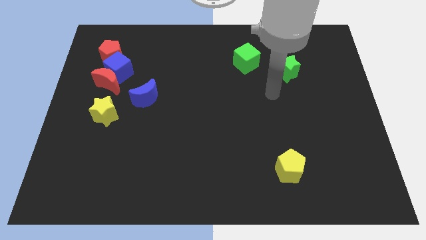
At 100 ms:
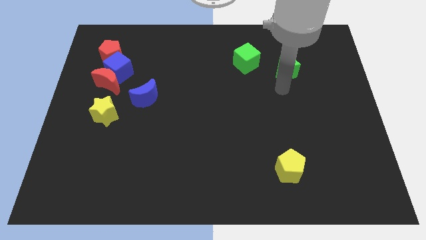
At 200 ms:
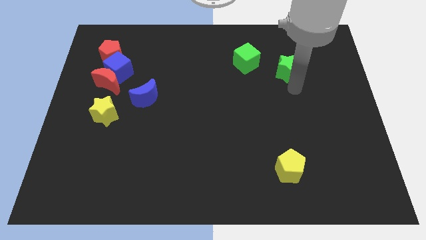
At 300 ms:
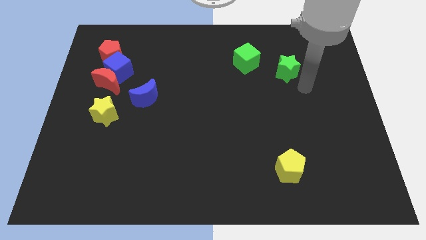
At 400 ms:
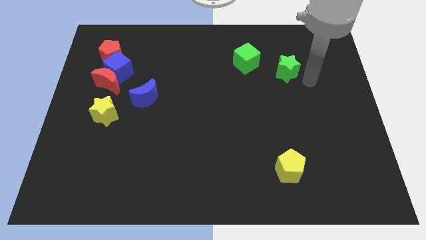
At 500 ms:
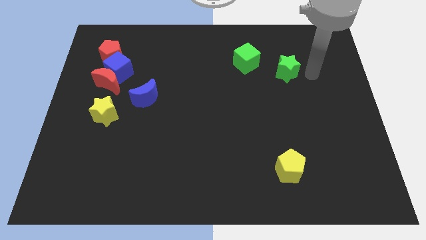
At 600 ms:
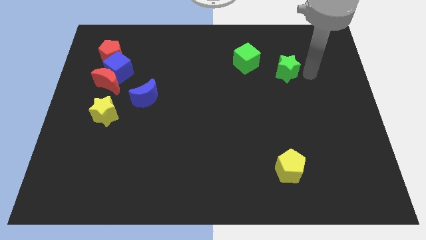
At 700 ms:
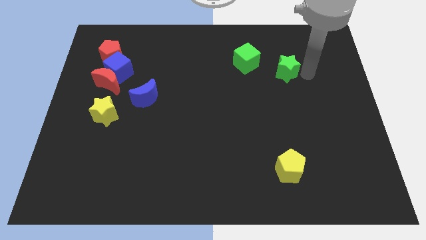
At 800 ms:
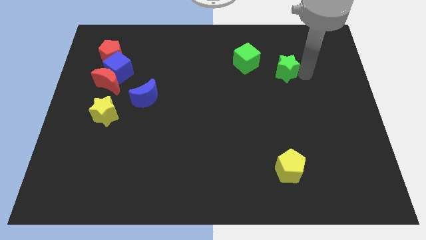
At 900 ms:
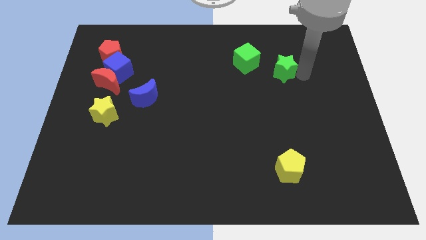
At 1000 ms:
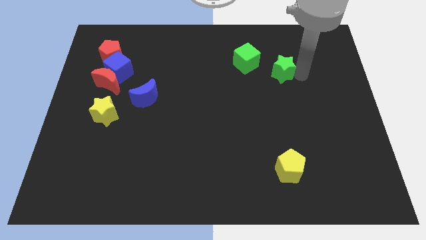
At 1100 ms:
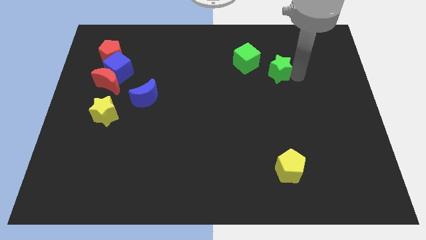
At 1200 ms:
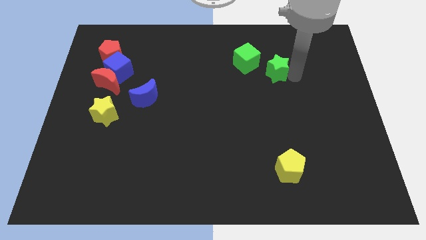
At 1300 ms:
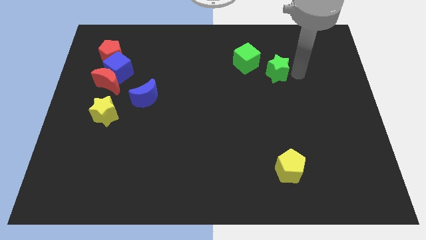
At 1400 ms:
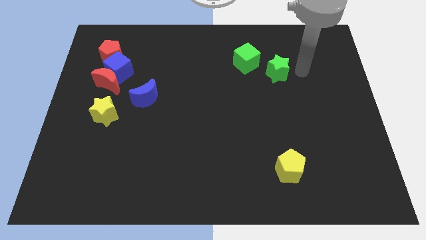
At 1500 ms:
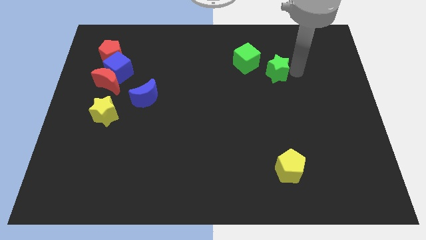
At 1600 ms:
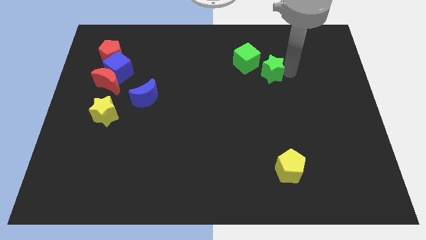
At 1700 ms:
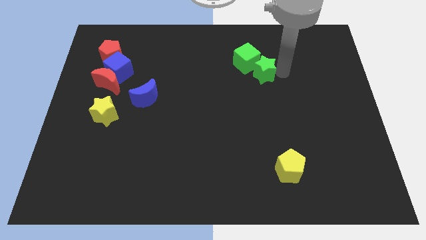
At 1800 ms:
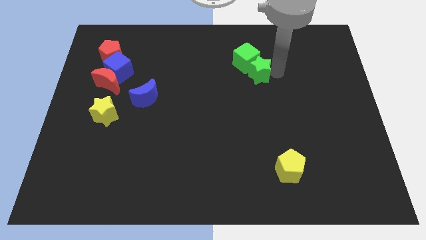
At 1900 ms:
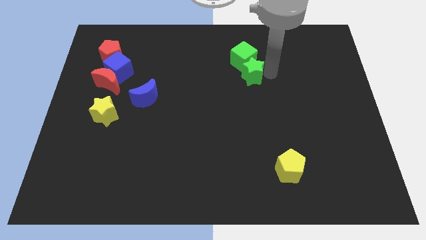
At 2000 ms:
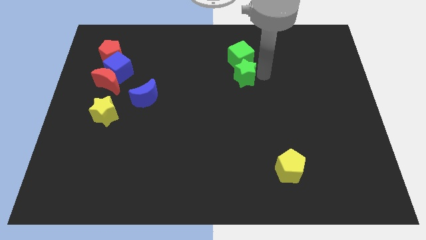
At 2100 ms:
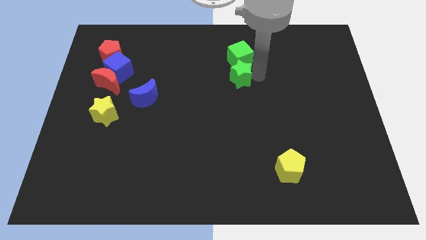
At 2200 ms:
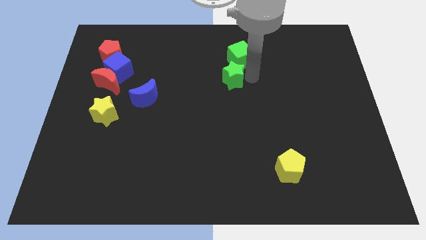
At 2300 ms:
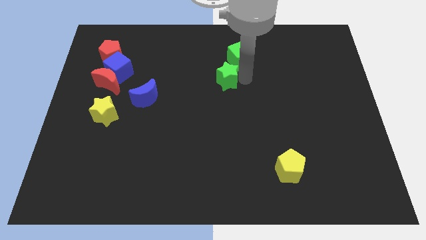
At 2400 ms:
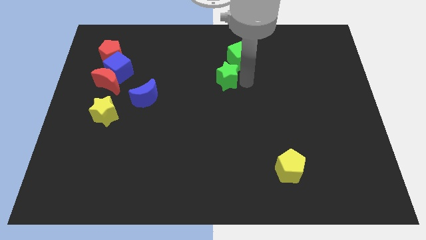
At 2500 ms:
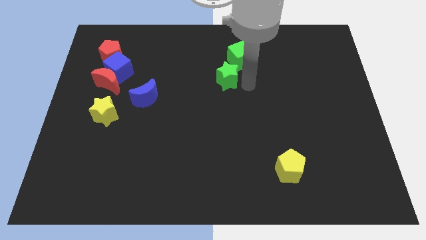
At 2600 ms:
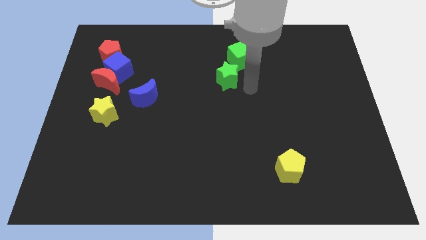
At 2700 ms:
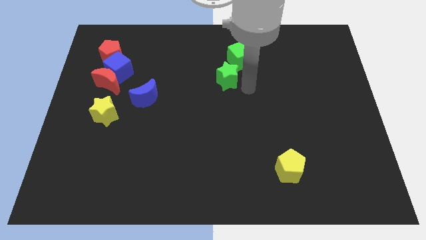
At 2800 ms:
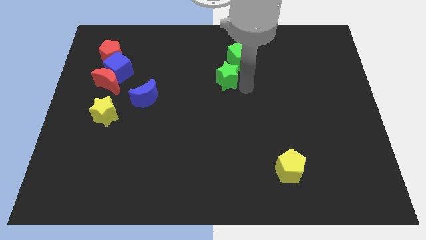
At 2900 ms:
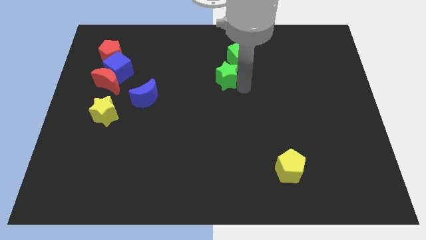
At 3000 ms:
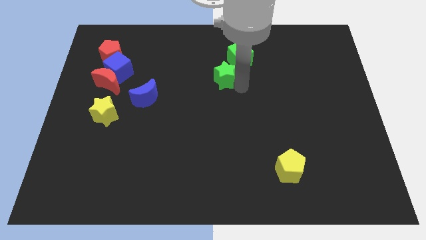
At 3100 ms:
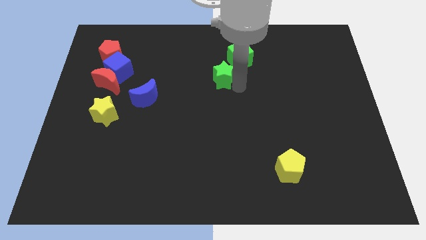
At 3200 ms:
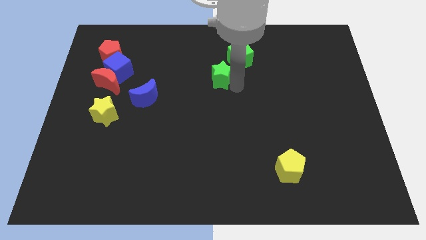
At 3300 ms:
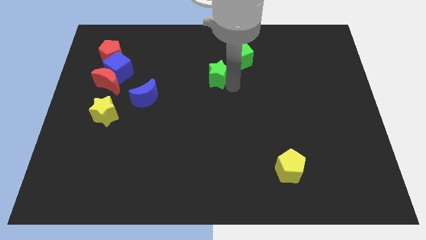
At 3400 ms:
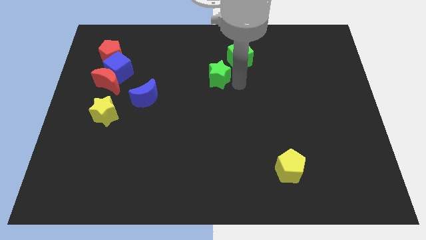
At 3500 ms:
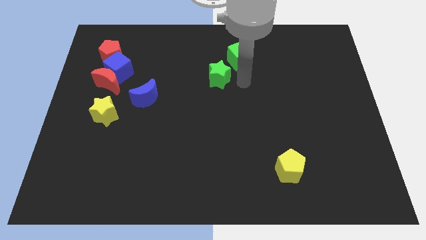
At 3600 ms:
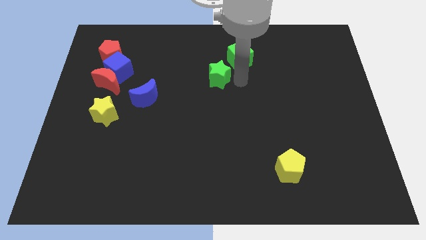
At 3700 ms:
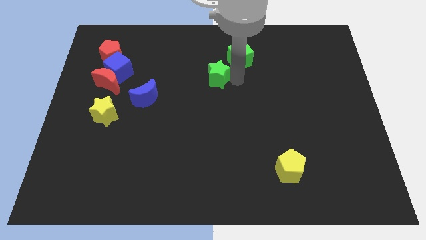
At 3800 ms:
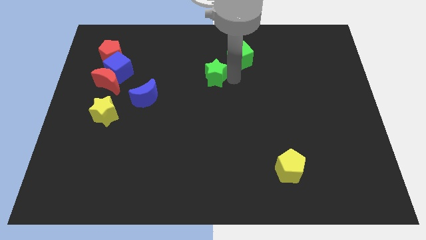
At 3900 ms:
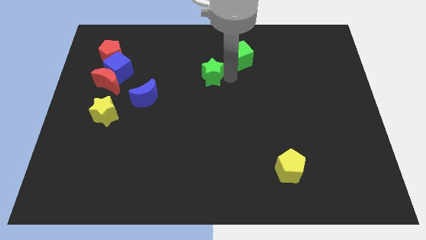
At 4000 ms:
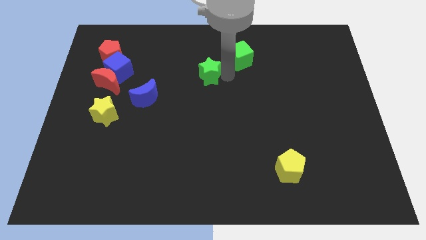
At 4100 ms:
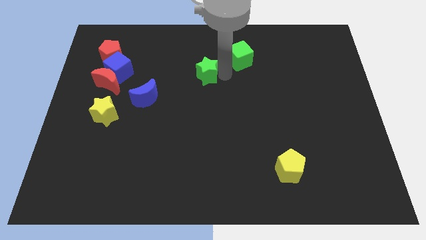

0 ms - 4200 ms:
slide the green star left

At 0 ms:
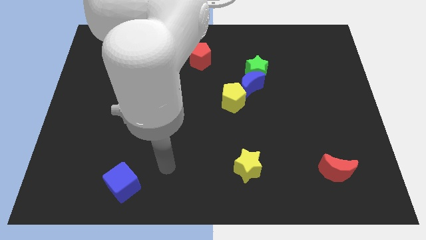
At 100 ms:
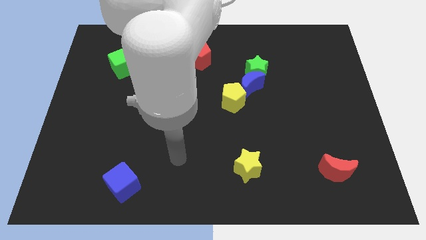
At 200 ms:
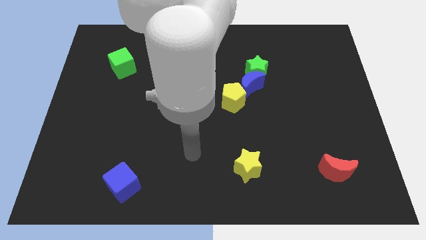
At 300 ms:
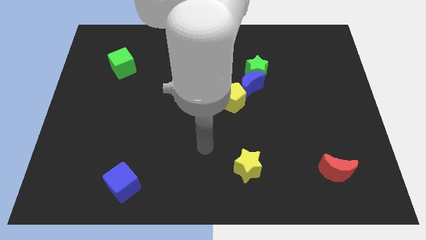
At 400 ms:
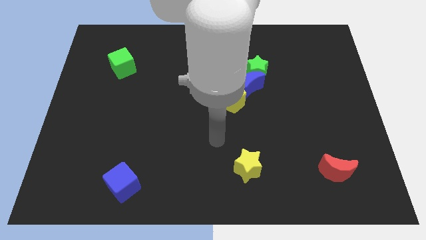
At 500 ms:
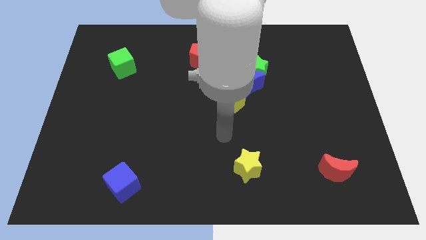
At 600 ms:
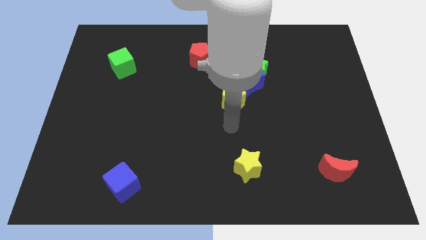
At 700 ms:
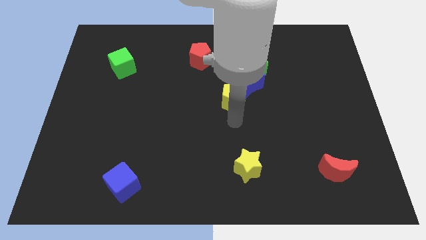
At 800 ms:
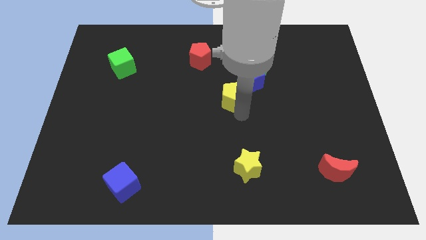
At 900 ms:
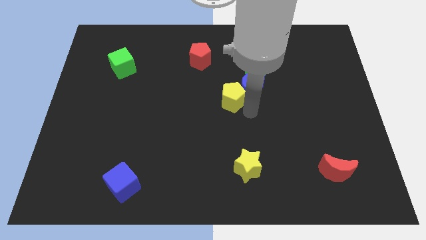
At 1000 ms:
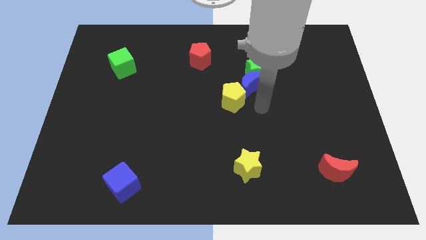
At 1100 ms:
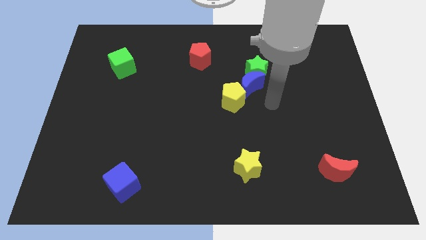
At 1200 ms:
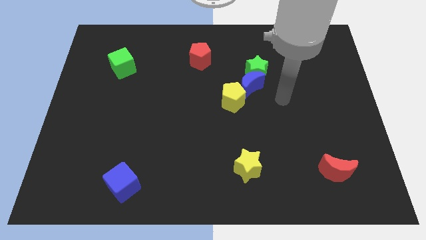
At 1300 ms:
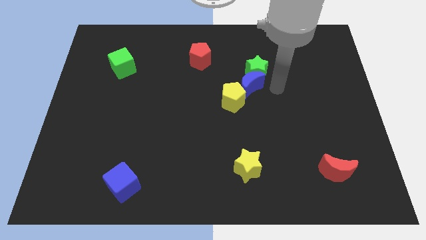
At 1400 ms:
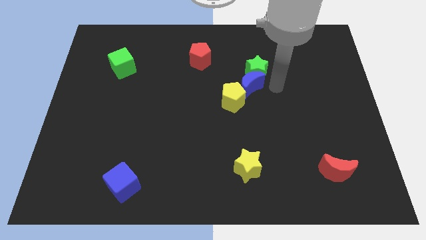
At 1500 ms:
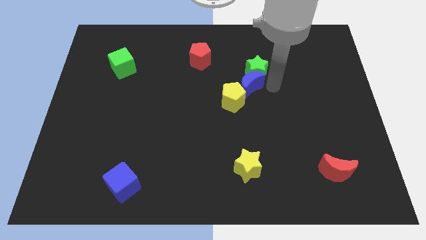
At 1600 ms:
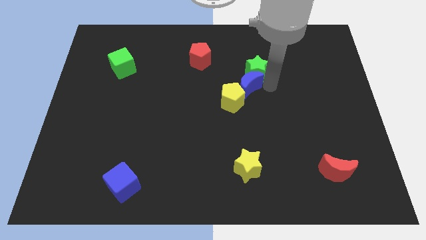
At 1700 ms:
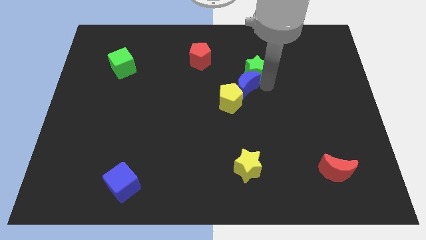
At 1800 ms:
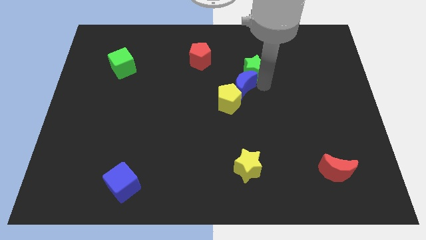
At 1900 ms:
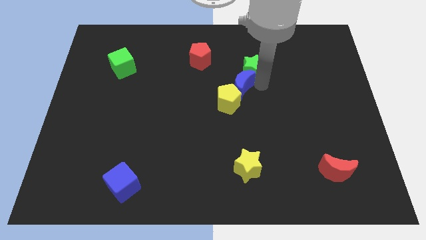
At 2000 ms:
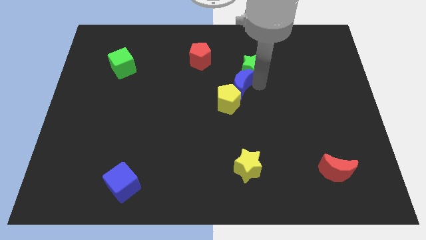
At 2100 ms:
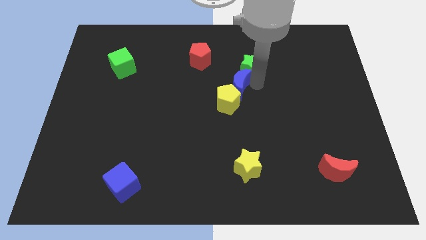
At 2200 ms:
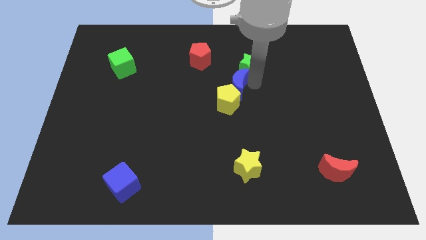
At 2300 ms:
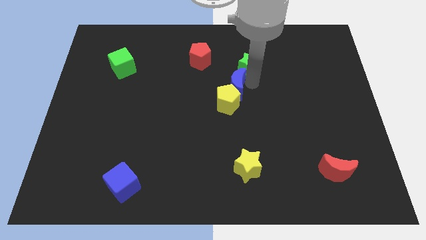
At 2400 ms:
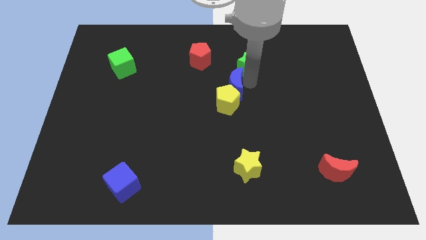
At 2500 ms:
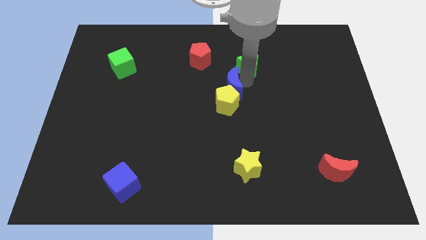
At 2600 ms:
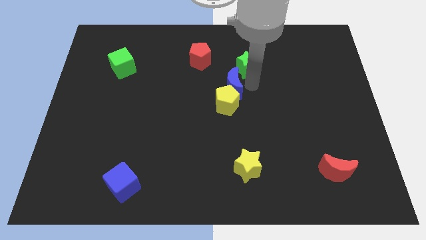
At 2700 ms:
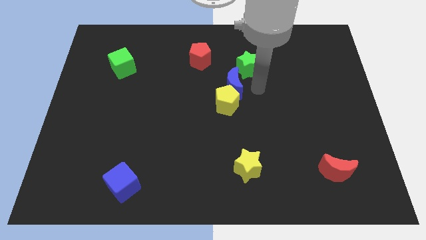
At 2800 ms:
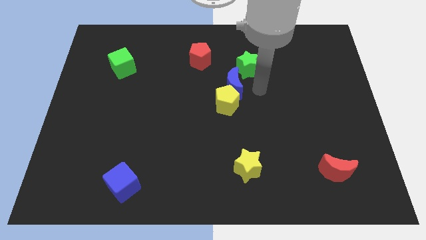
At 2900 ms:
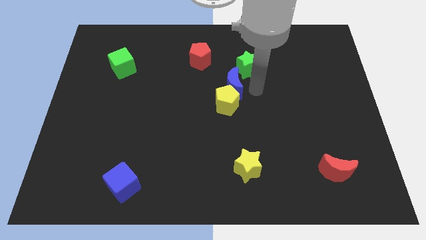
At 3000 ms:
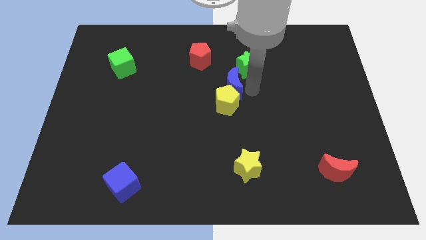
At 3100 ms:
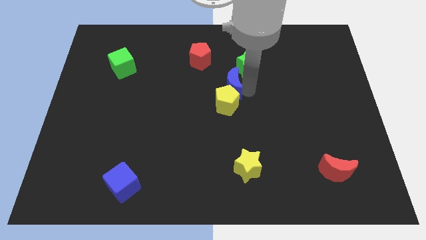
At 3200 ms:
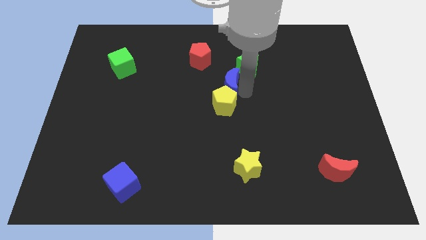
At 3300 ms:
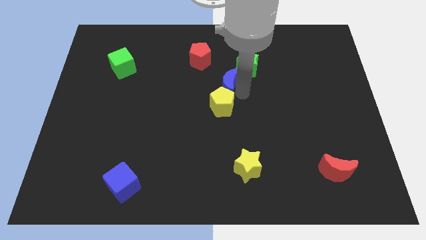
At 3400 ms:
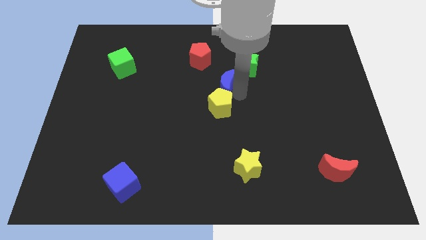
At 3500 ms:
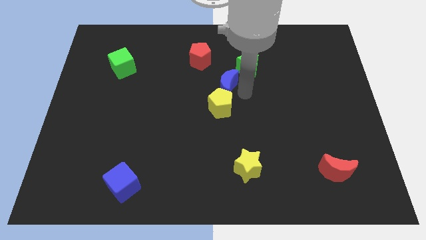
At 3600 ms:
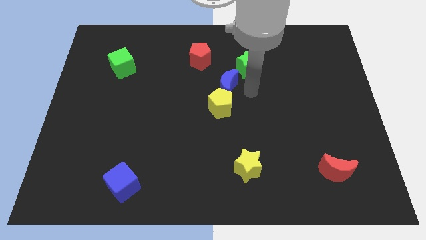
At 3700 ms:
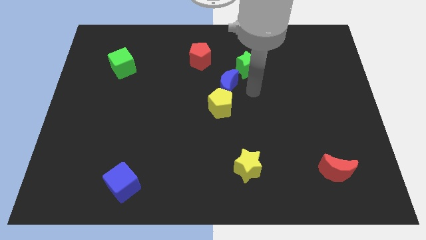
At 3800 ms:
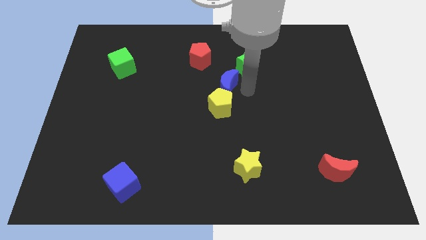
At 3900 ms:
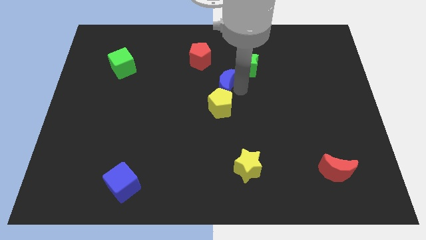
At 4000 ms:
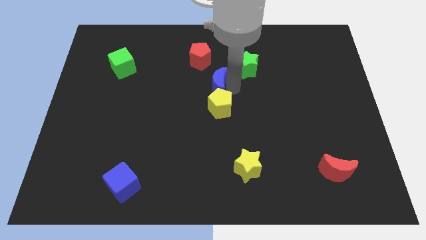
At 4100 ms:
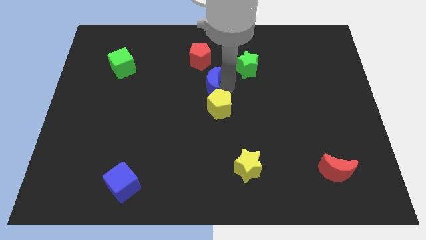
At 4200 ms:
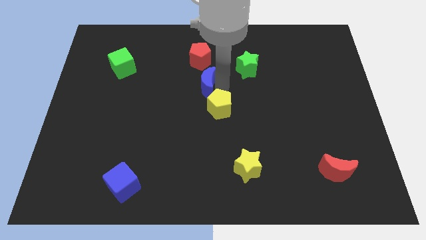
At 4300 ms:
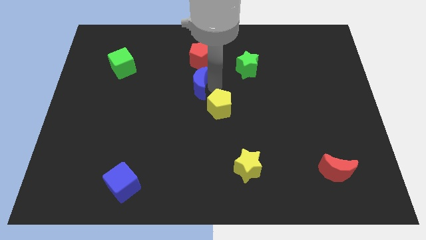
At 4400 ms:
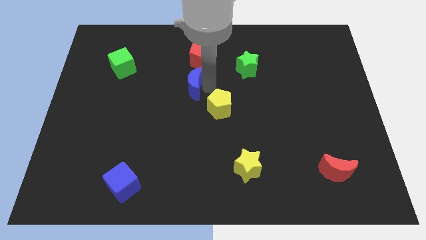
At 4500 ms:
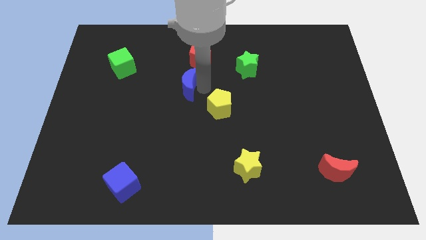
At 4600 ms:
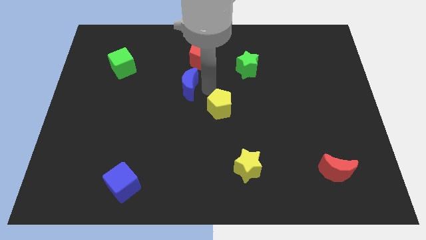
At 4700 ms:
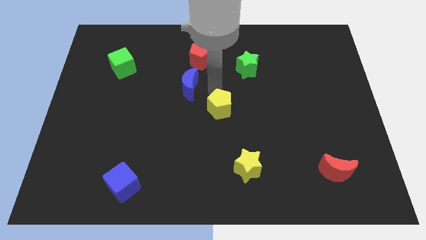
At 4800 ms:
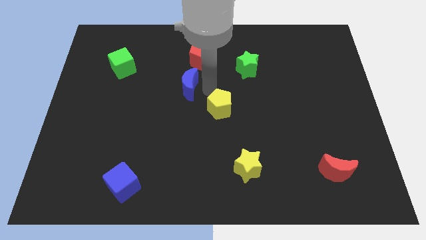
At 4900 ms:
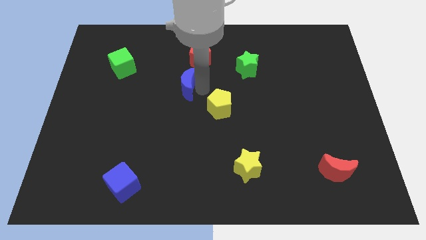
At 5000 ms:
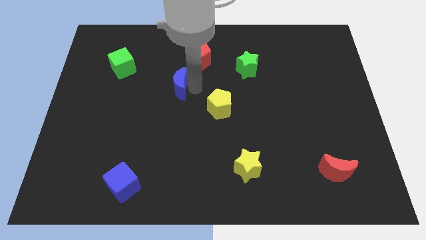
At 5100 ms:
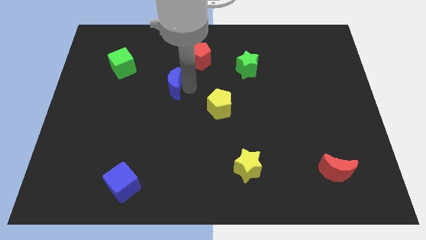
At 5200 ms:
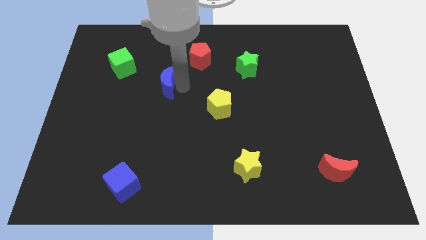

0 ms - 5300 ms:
move the blue moon left
